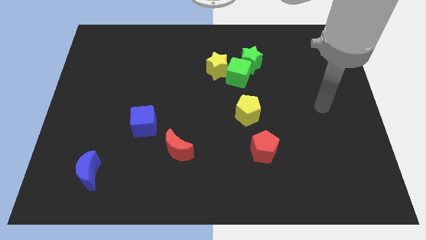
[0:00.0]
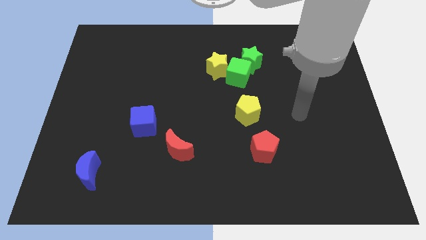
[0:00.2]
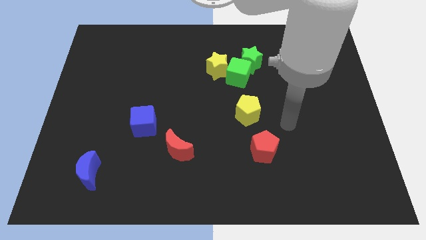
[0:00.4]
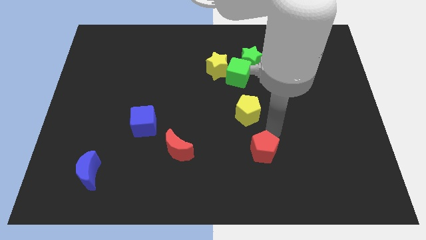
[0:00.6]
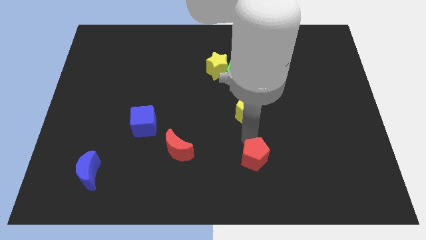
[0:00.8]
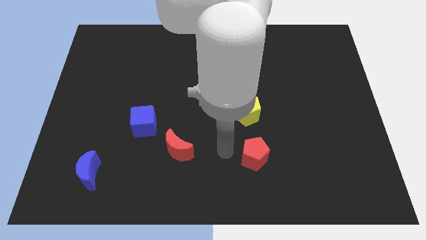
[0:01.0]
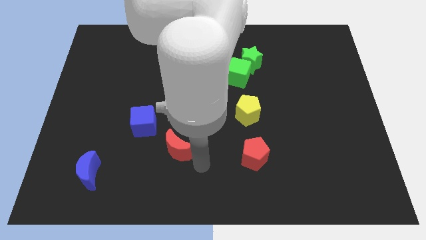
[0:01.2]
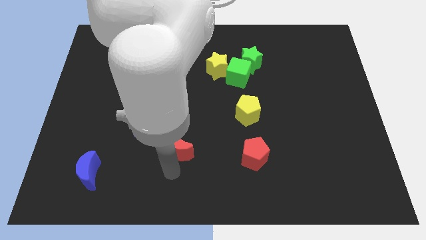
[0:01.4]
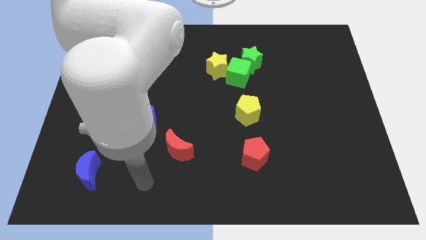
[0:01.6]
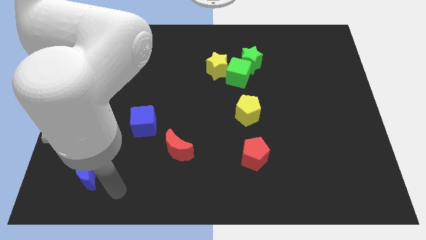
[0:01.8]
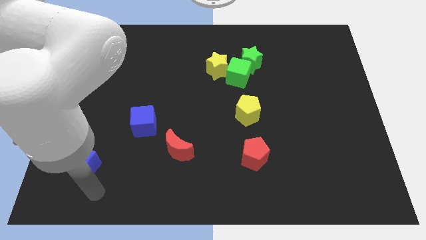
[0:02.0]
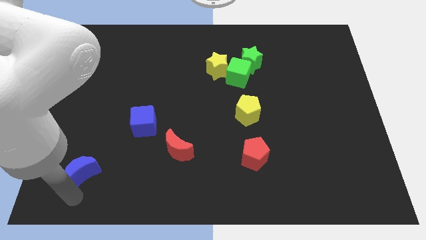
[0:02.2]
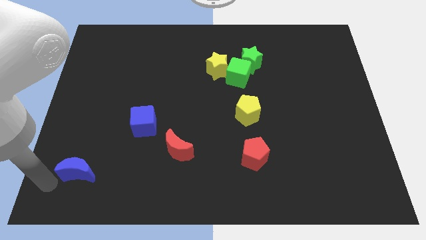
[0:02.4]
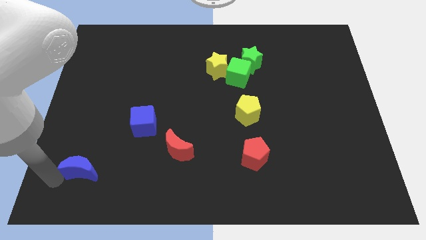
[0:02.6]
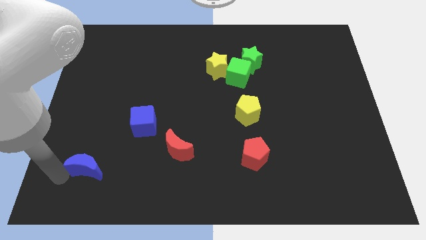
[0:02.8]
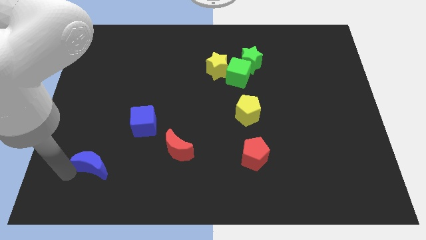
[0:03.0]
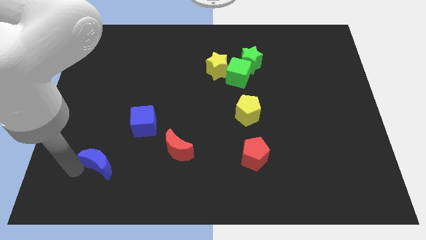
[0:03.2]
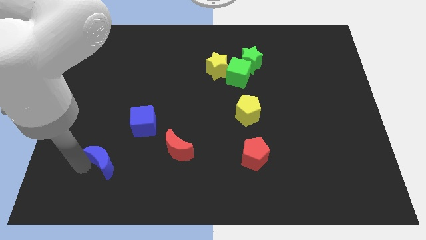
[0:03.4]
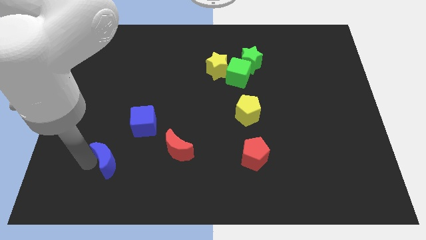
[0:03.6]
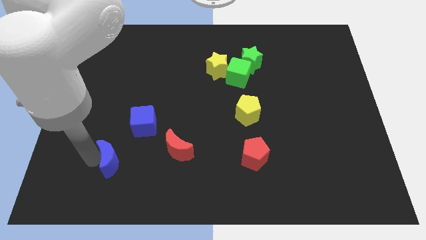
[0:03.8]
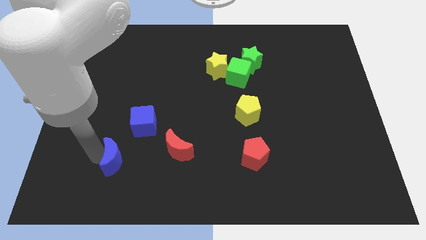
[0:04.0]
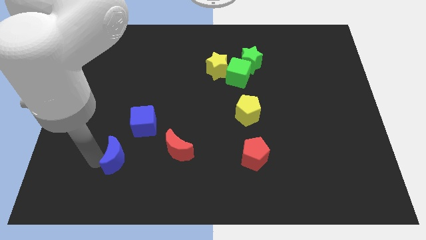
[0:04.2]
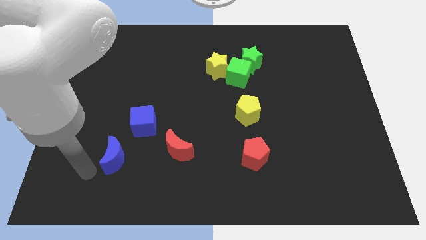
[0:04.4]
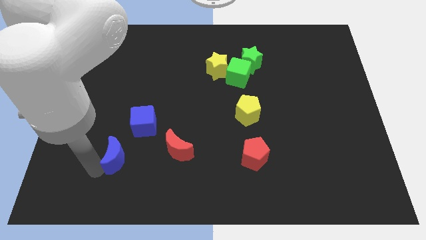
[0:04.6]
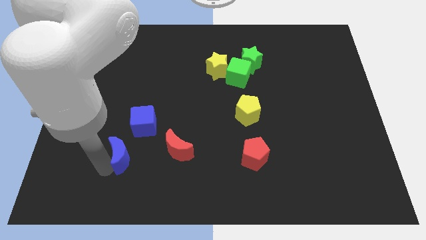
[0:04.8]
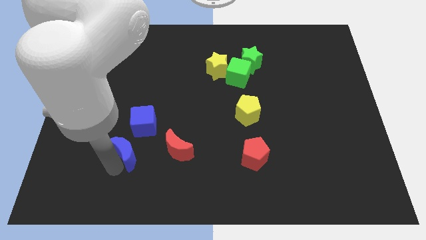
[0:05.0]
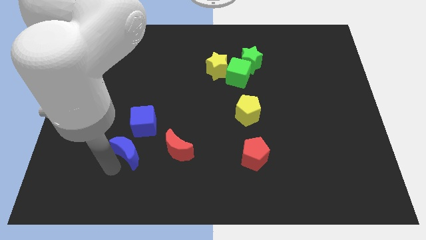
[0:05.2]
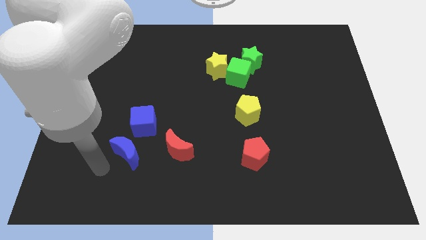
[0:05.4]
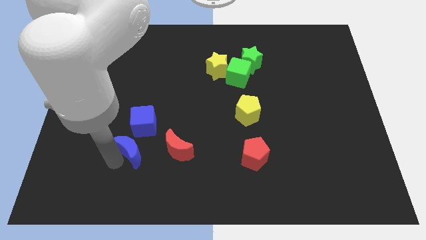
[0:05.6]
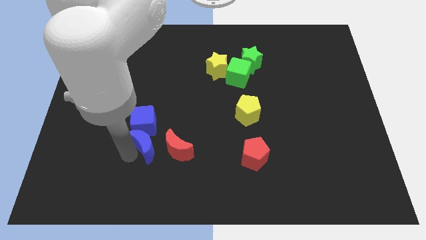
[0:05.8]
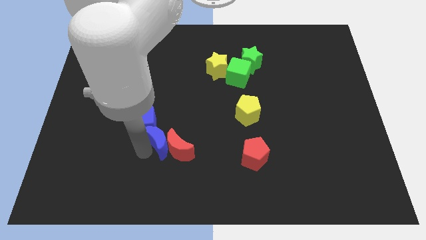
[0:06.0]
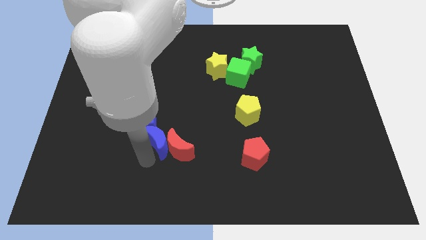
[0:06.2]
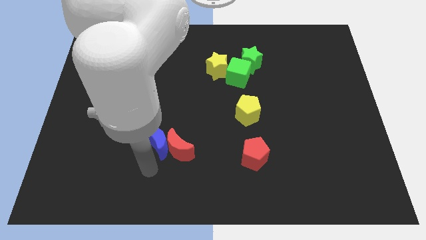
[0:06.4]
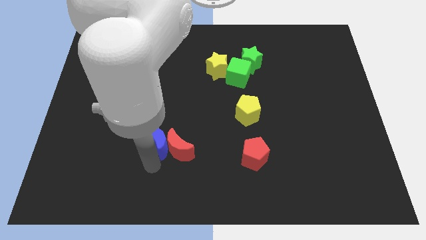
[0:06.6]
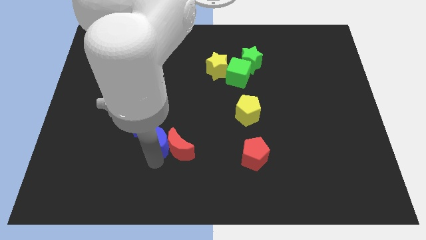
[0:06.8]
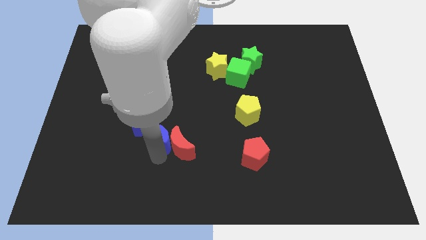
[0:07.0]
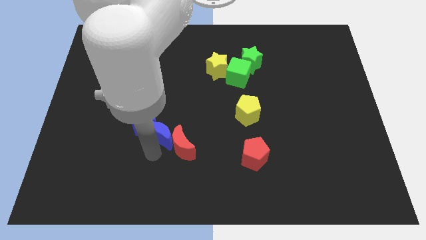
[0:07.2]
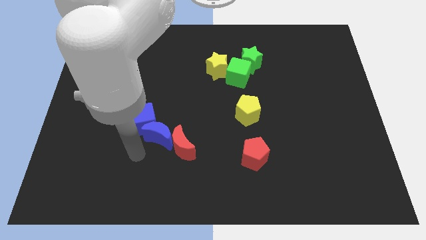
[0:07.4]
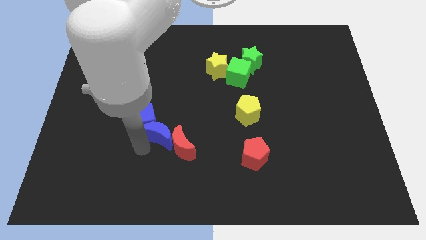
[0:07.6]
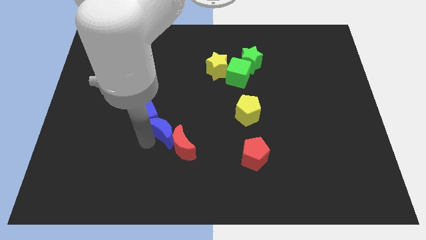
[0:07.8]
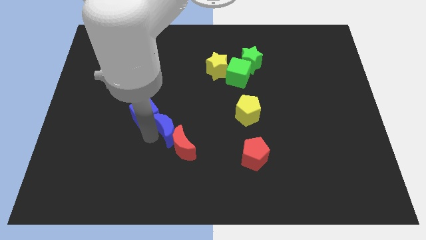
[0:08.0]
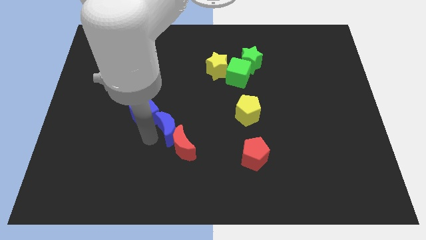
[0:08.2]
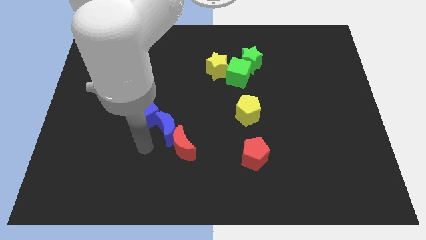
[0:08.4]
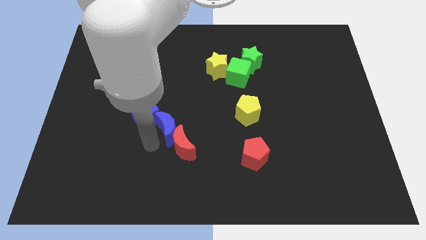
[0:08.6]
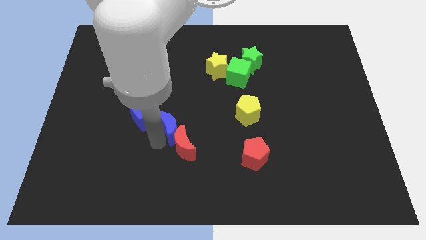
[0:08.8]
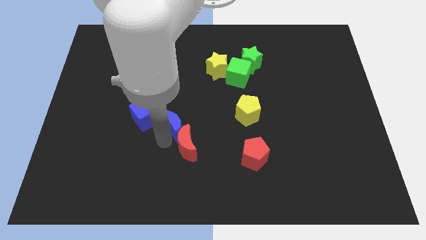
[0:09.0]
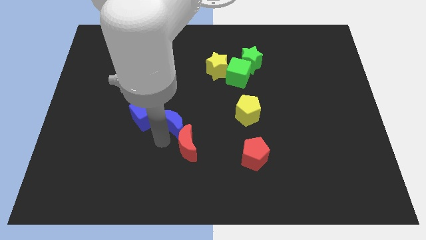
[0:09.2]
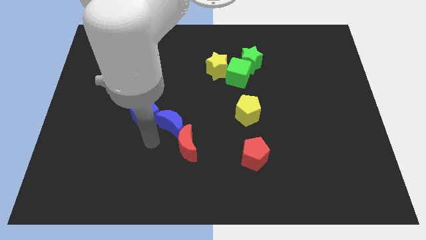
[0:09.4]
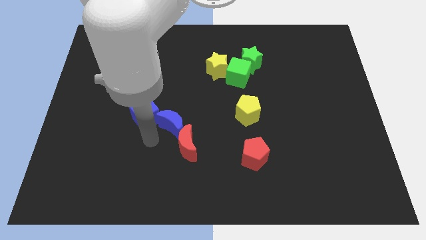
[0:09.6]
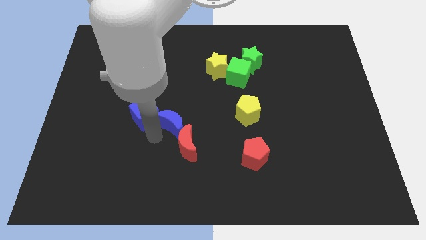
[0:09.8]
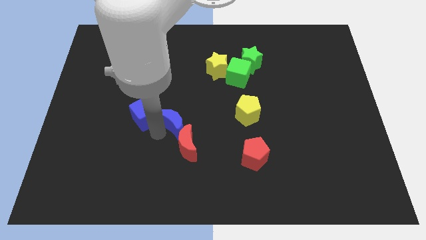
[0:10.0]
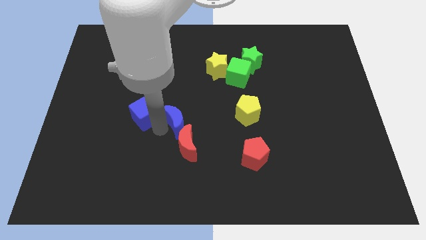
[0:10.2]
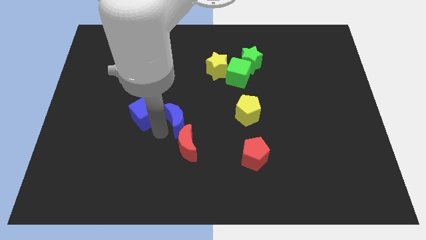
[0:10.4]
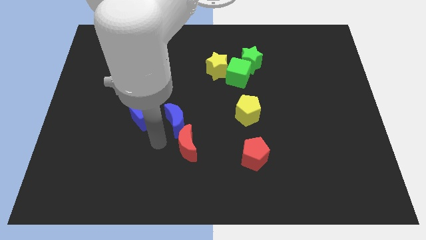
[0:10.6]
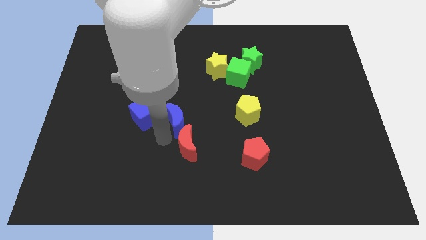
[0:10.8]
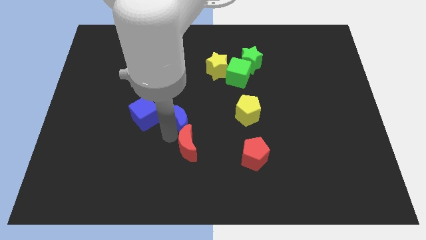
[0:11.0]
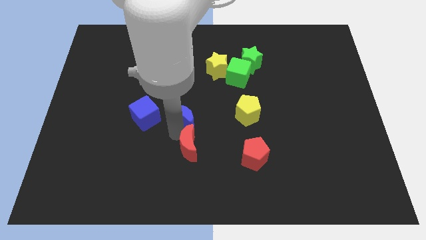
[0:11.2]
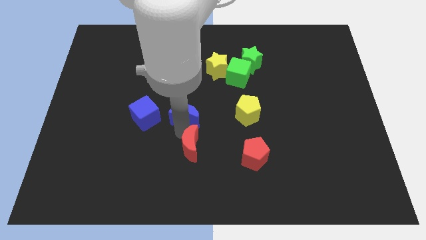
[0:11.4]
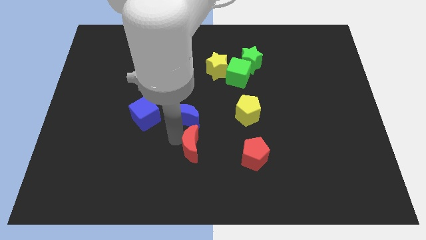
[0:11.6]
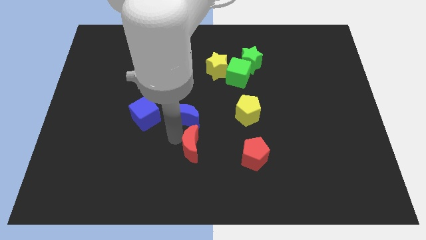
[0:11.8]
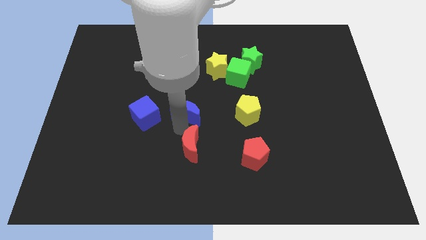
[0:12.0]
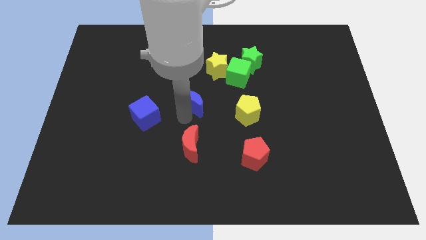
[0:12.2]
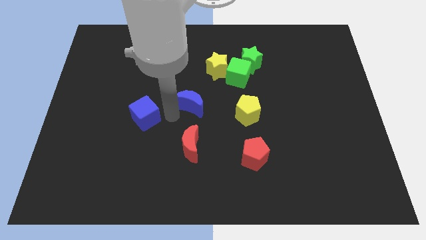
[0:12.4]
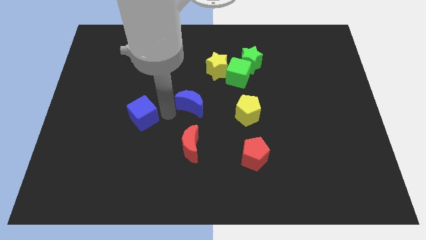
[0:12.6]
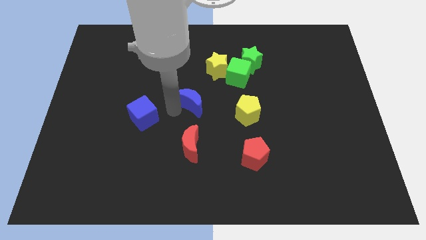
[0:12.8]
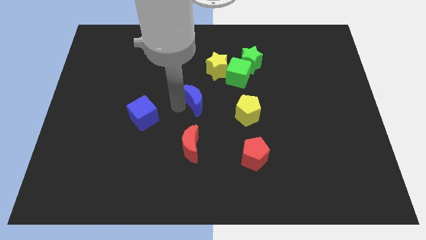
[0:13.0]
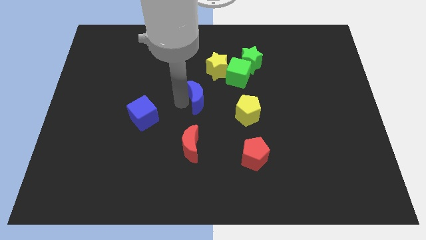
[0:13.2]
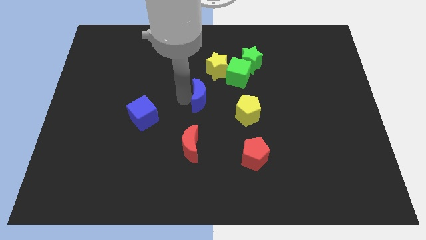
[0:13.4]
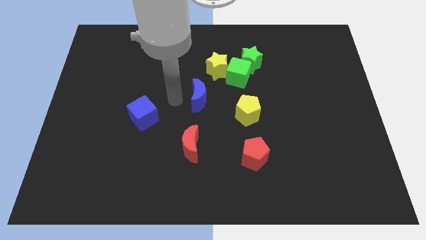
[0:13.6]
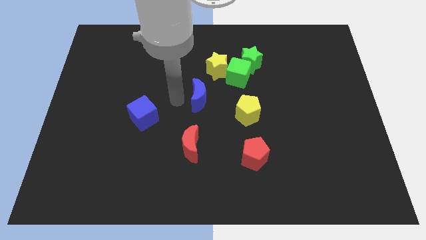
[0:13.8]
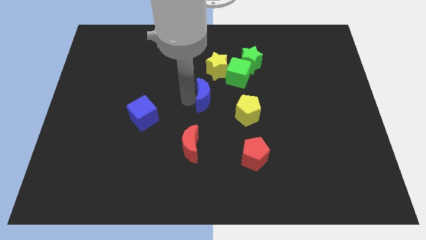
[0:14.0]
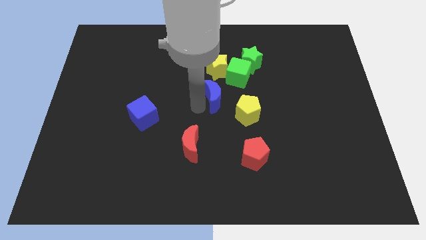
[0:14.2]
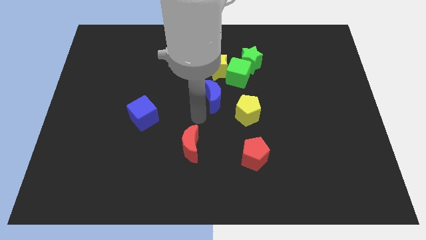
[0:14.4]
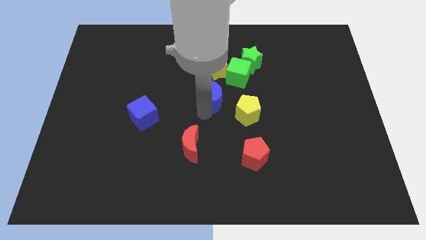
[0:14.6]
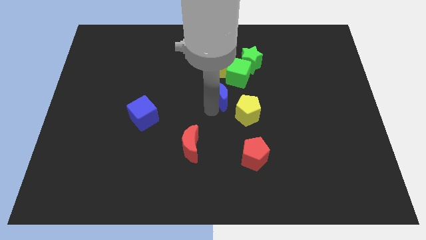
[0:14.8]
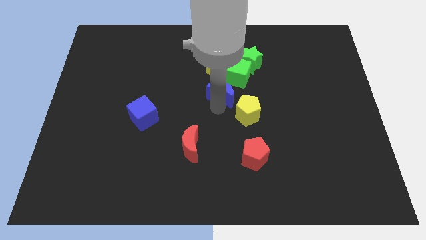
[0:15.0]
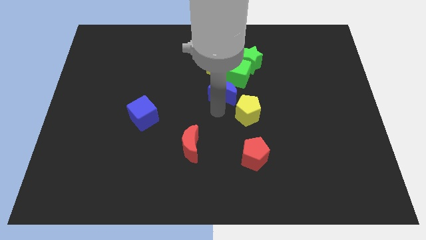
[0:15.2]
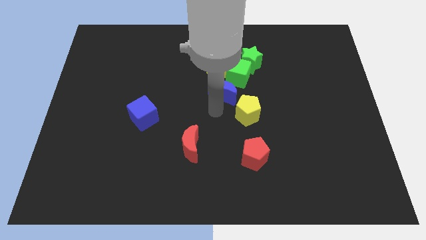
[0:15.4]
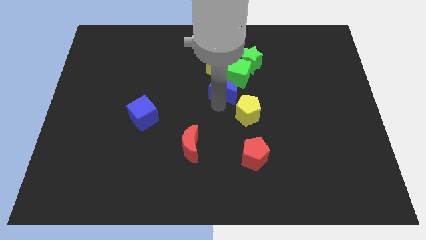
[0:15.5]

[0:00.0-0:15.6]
move the blue moon diagonally down and to the left of the green star

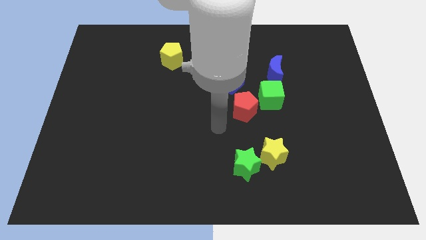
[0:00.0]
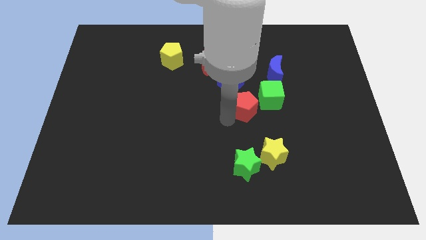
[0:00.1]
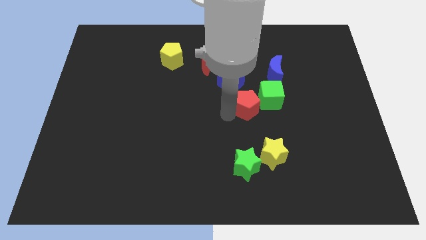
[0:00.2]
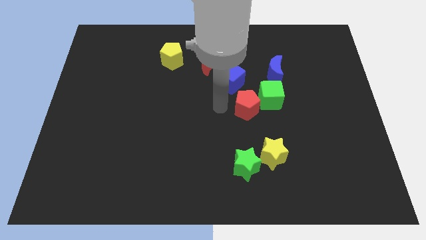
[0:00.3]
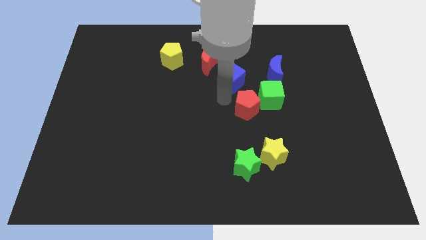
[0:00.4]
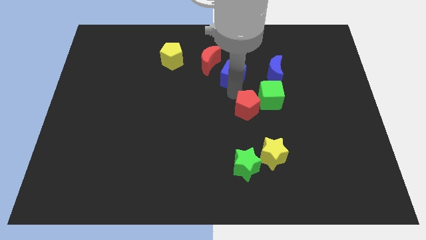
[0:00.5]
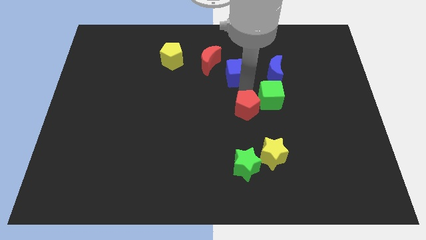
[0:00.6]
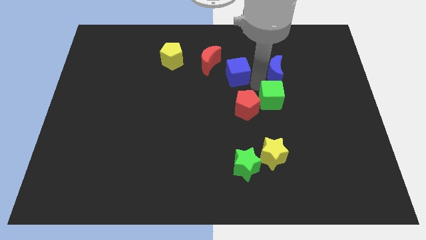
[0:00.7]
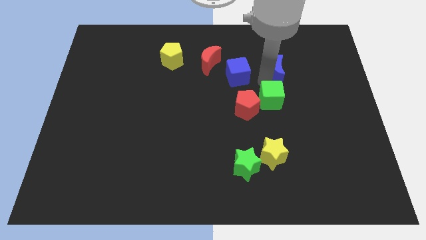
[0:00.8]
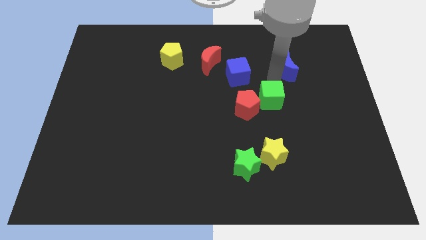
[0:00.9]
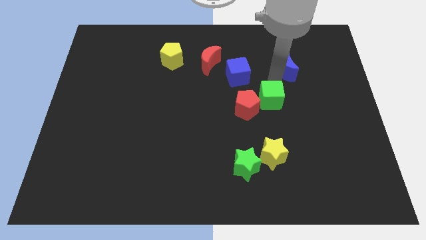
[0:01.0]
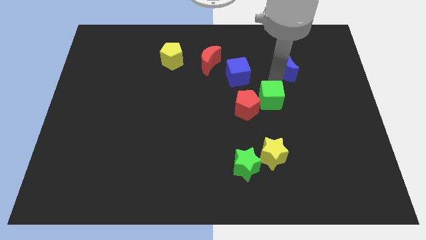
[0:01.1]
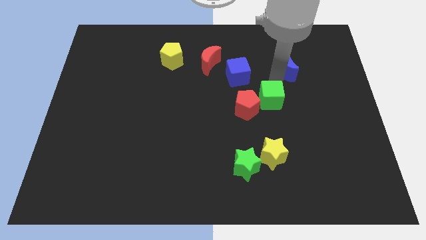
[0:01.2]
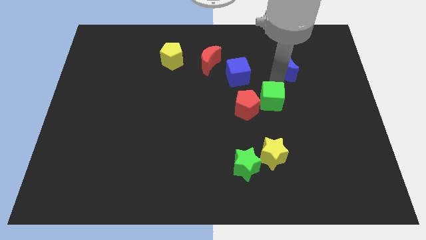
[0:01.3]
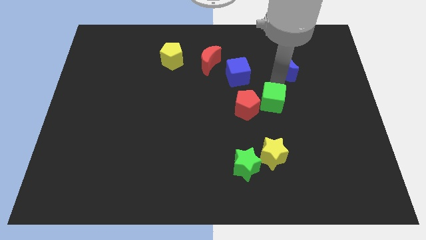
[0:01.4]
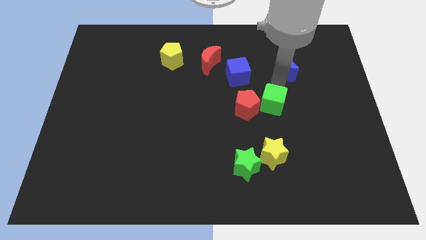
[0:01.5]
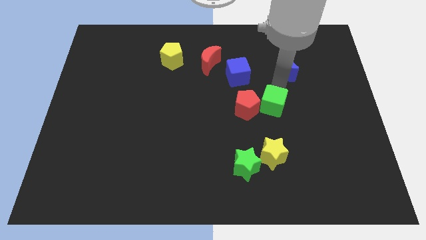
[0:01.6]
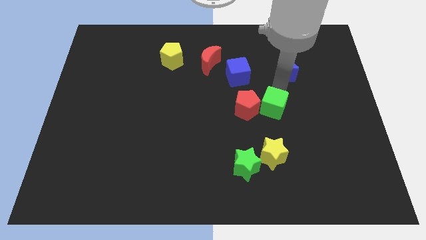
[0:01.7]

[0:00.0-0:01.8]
slide the green cube to the bottom right side of the red pentagon
